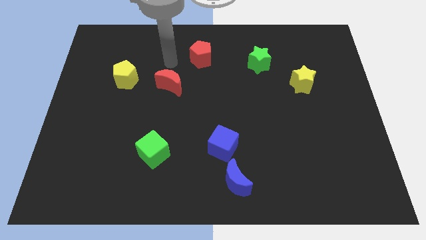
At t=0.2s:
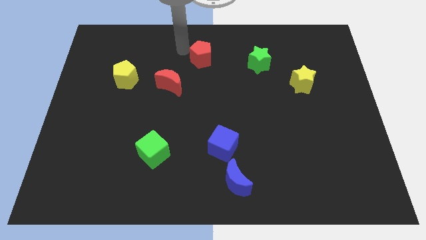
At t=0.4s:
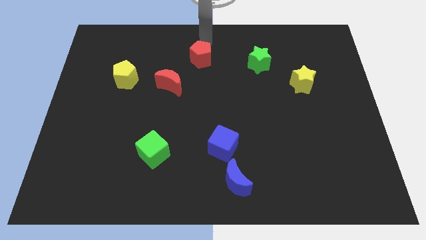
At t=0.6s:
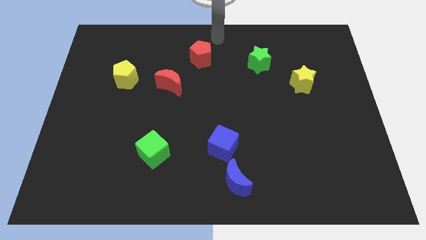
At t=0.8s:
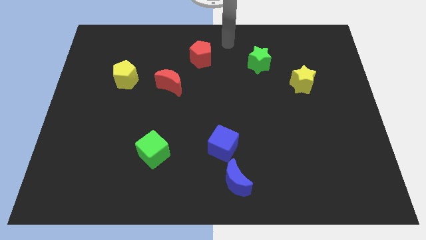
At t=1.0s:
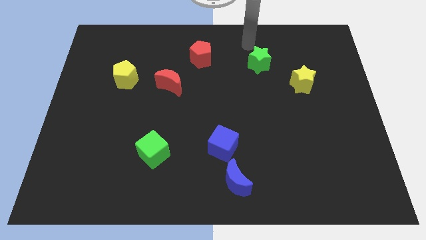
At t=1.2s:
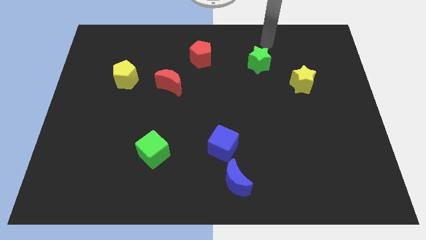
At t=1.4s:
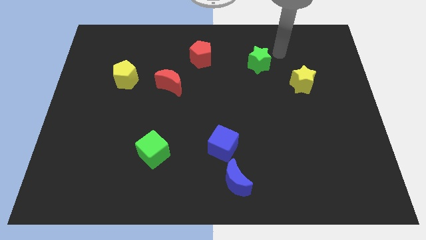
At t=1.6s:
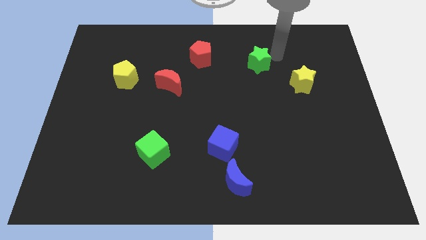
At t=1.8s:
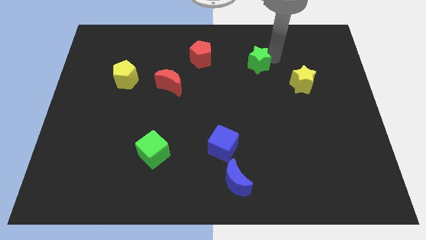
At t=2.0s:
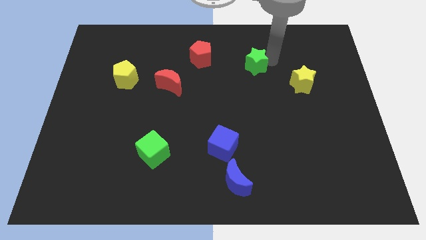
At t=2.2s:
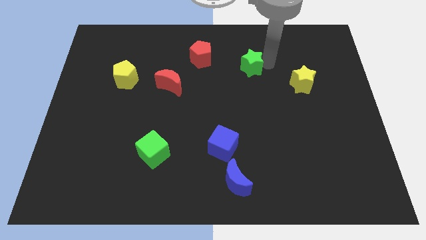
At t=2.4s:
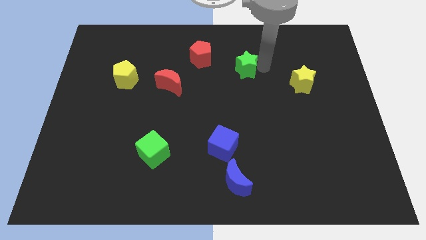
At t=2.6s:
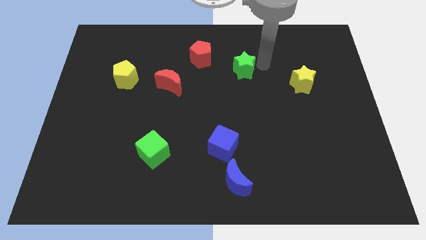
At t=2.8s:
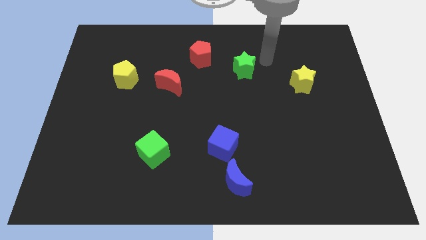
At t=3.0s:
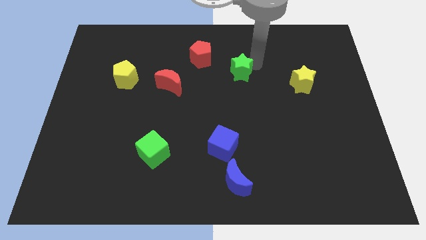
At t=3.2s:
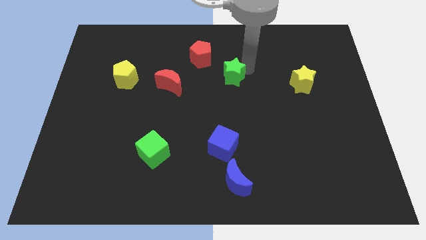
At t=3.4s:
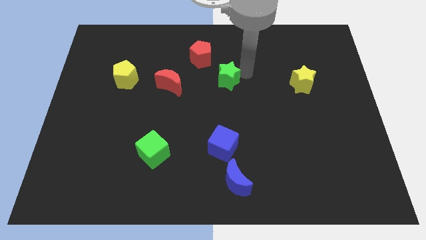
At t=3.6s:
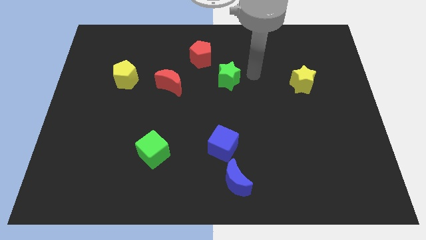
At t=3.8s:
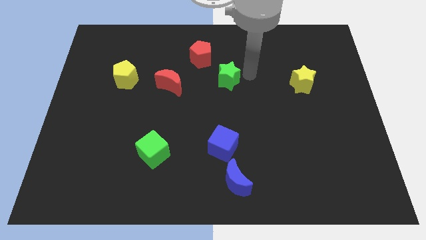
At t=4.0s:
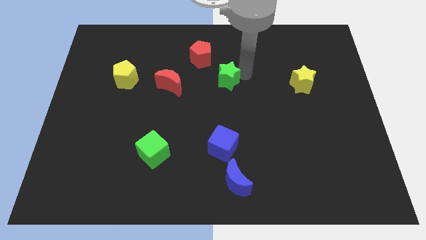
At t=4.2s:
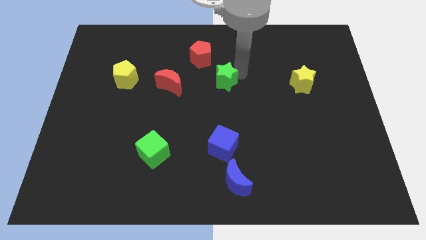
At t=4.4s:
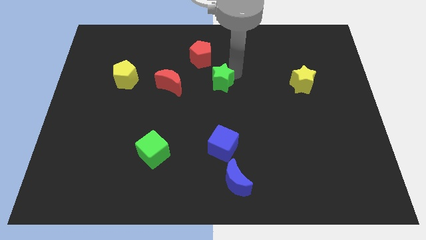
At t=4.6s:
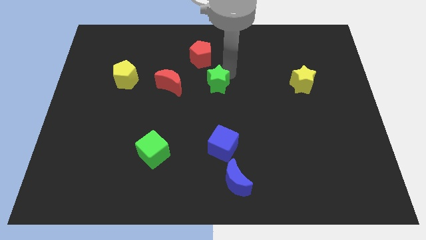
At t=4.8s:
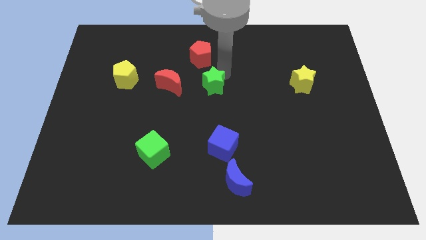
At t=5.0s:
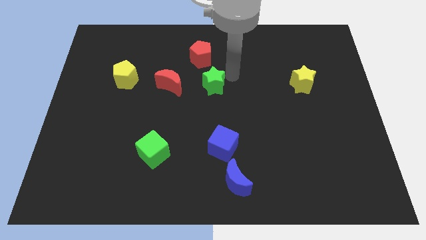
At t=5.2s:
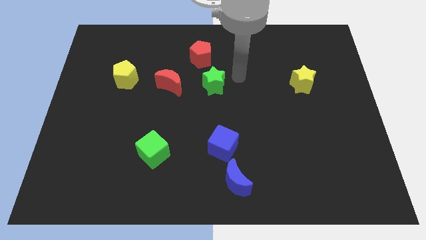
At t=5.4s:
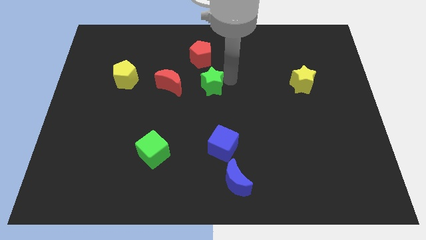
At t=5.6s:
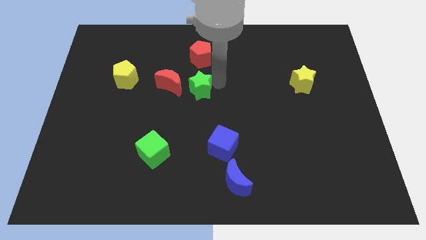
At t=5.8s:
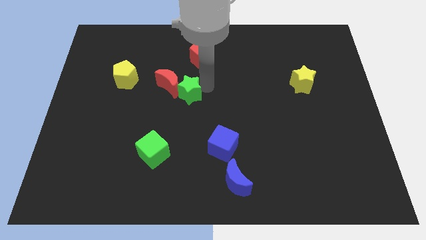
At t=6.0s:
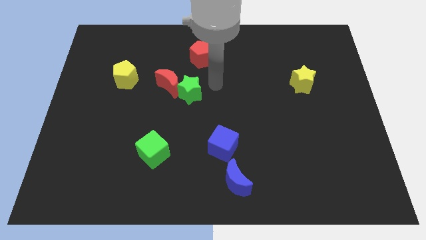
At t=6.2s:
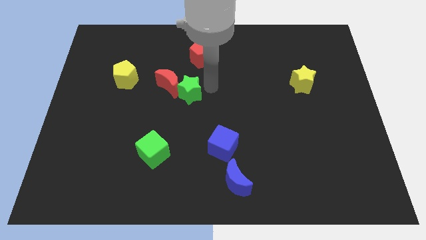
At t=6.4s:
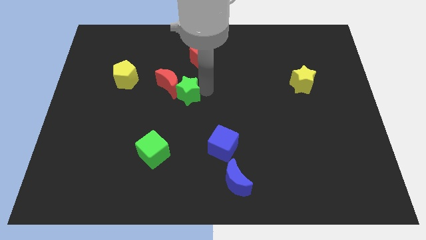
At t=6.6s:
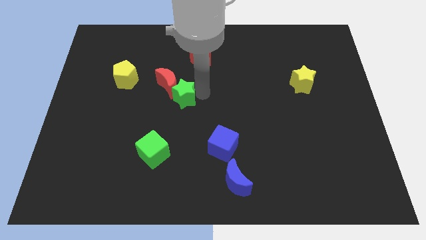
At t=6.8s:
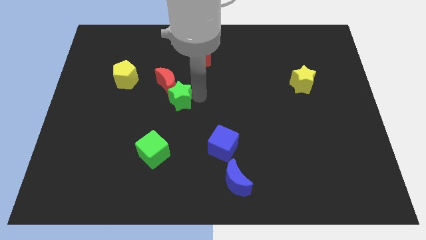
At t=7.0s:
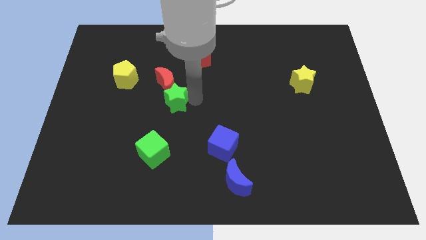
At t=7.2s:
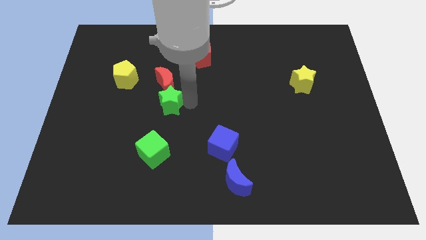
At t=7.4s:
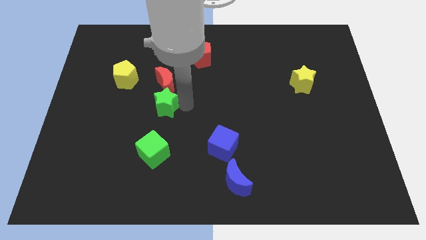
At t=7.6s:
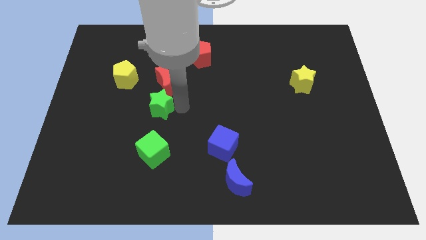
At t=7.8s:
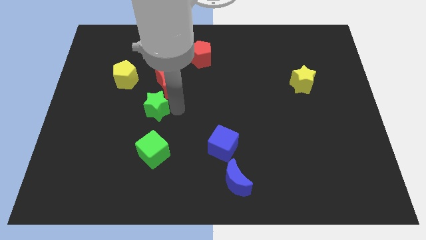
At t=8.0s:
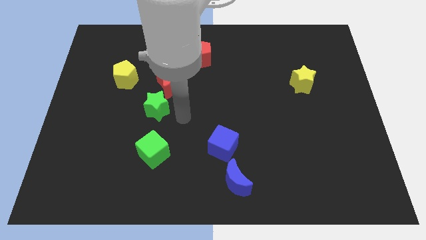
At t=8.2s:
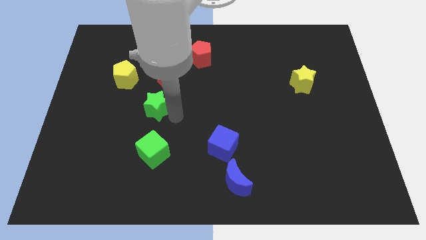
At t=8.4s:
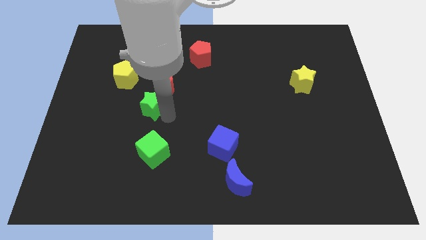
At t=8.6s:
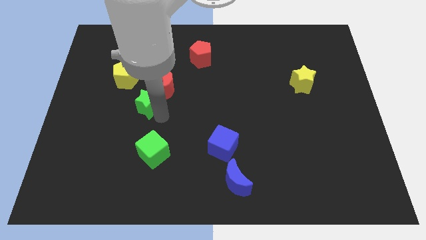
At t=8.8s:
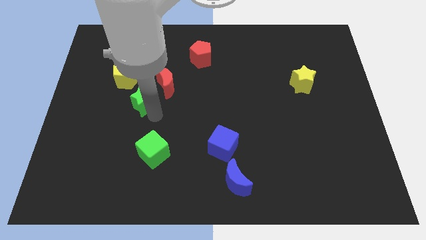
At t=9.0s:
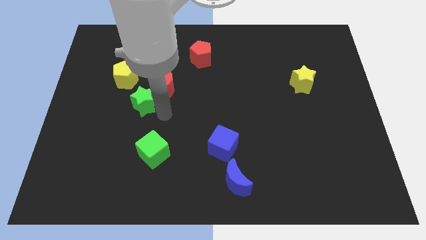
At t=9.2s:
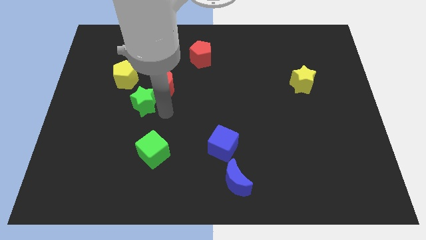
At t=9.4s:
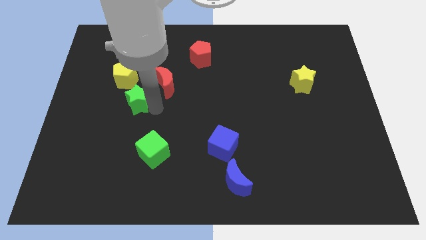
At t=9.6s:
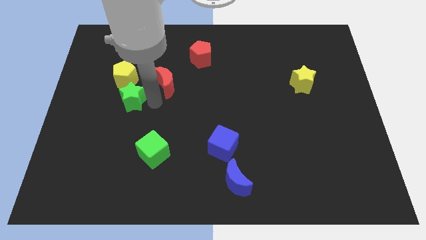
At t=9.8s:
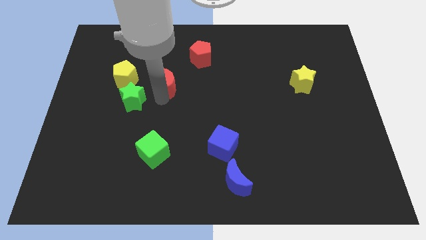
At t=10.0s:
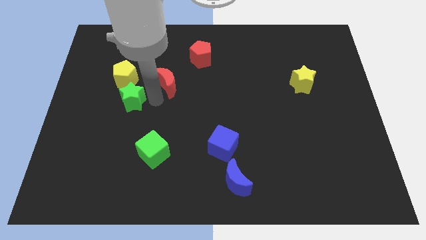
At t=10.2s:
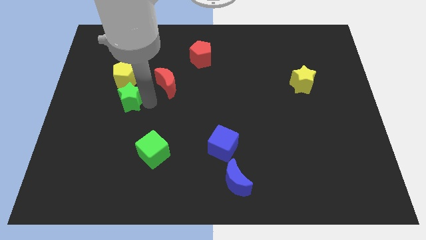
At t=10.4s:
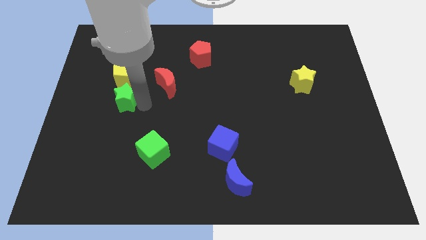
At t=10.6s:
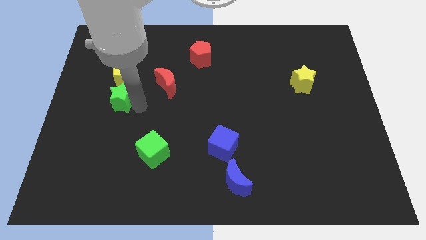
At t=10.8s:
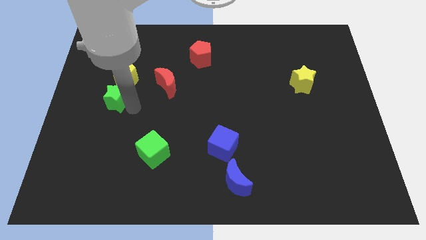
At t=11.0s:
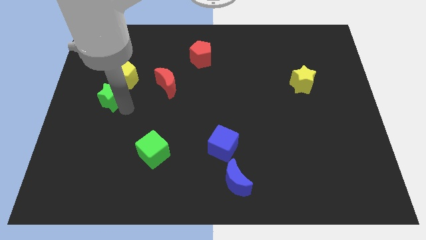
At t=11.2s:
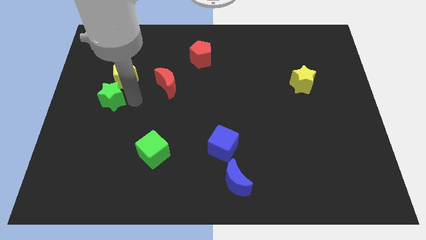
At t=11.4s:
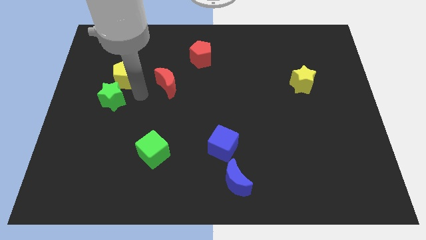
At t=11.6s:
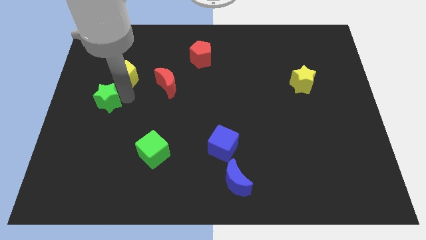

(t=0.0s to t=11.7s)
push the green star to the center left

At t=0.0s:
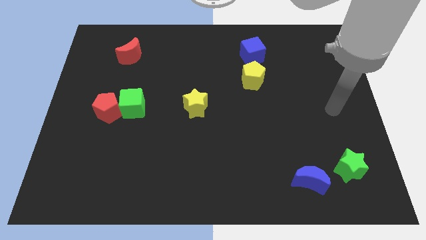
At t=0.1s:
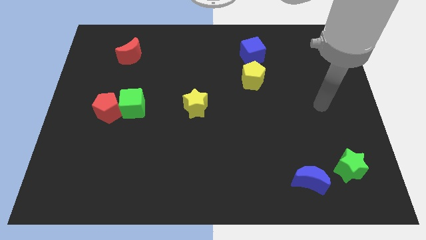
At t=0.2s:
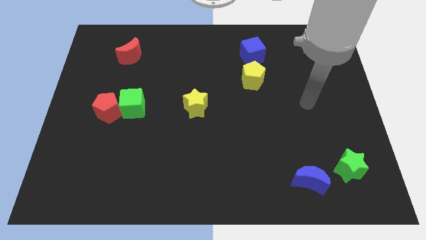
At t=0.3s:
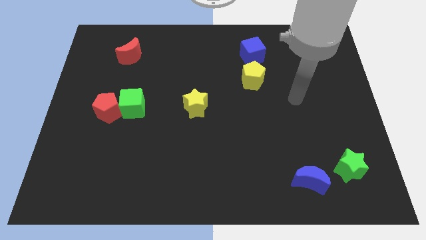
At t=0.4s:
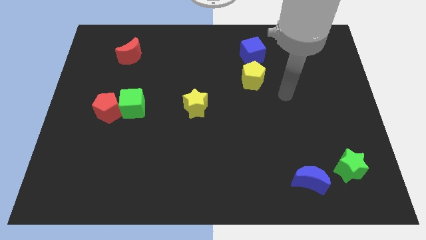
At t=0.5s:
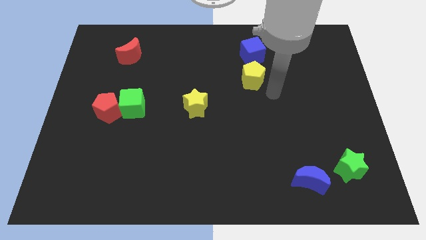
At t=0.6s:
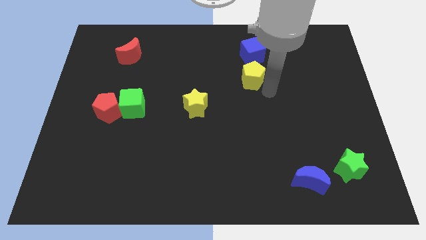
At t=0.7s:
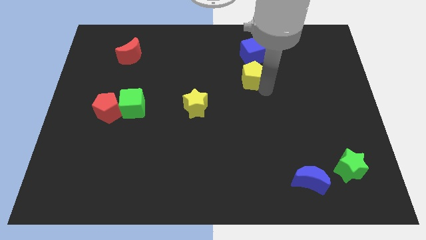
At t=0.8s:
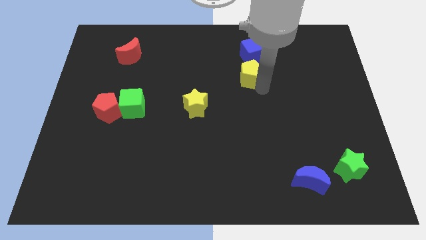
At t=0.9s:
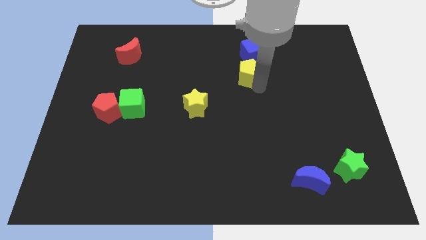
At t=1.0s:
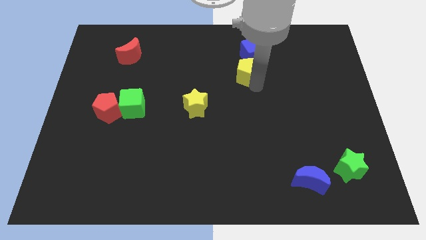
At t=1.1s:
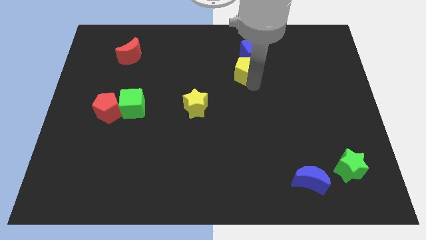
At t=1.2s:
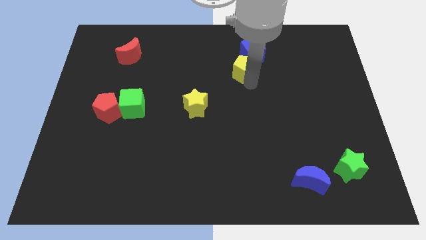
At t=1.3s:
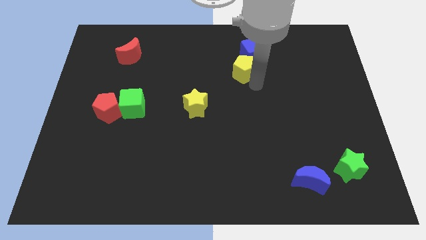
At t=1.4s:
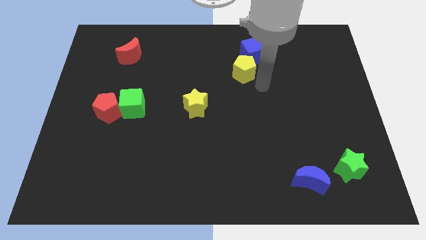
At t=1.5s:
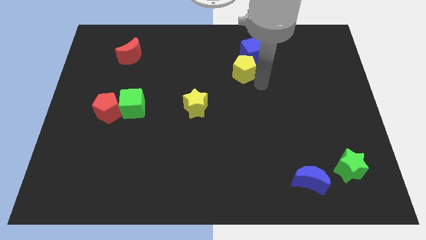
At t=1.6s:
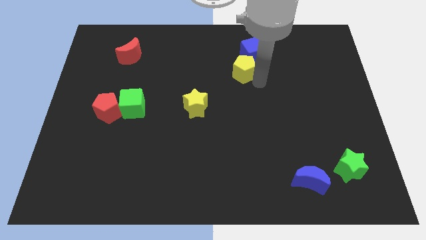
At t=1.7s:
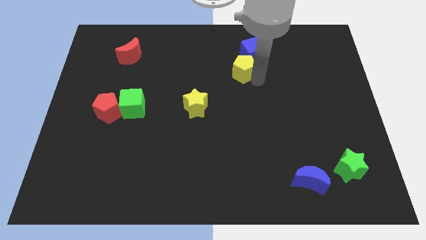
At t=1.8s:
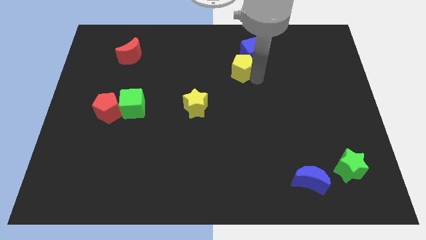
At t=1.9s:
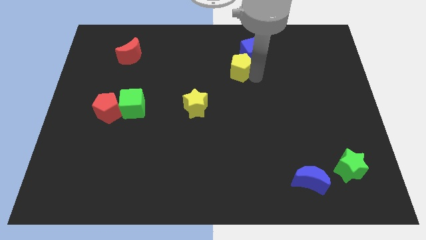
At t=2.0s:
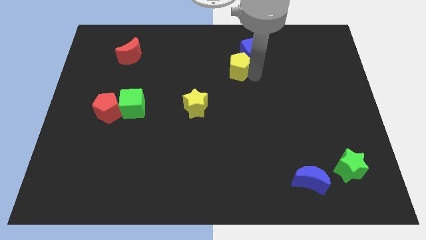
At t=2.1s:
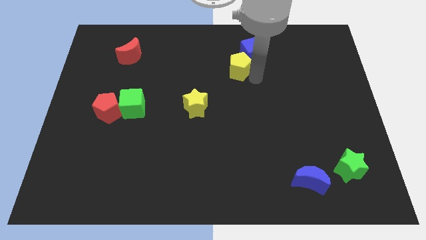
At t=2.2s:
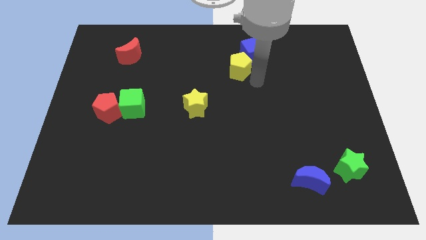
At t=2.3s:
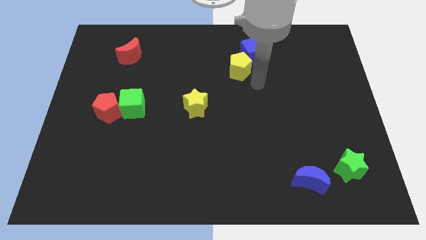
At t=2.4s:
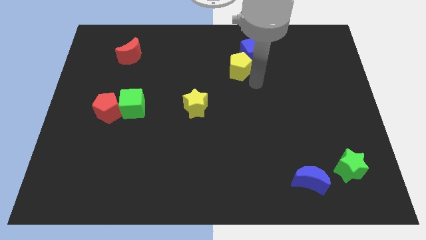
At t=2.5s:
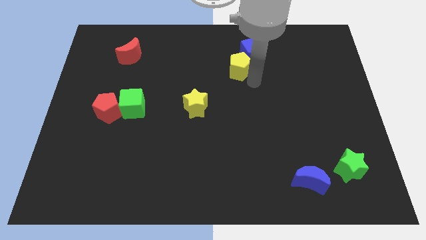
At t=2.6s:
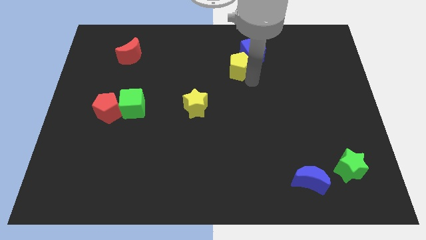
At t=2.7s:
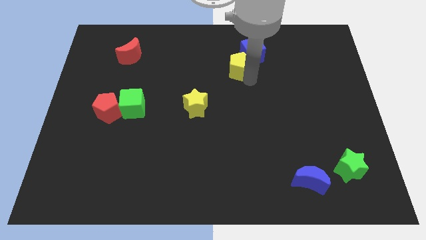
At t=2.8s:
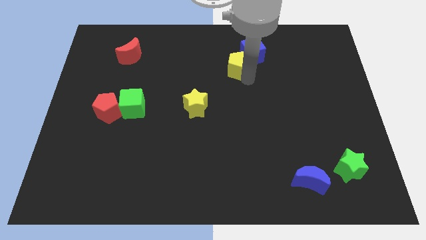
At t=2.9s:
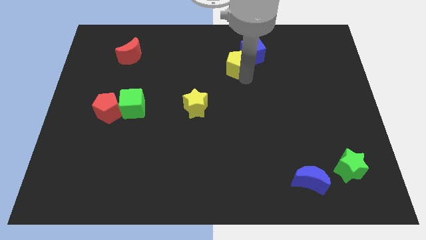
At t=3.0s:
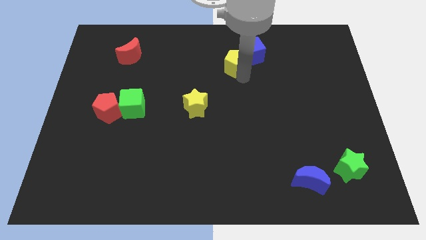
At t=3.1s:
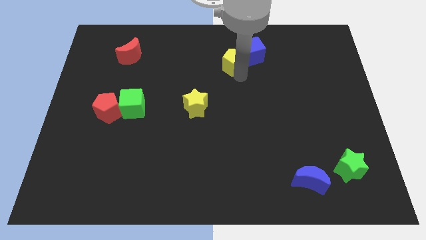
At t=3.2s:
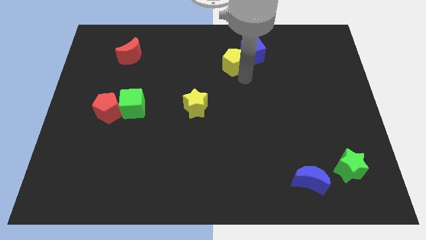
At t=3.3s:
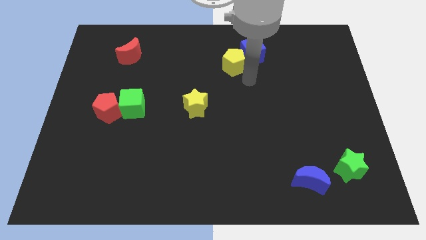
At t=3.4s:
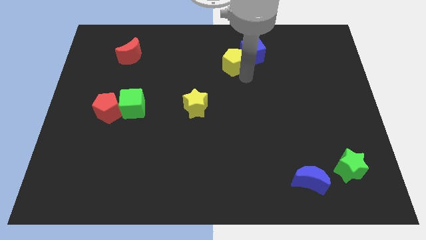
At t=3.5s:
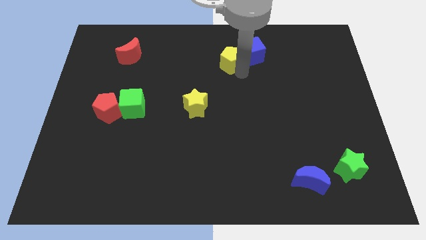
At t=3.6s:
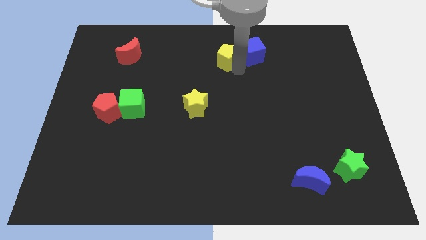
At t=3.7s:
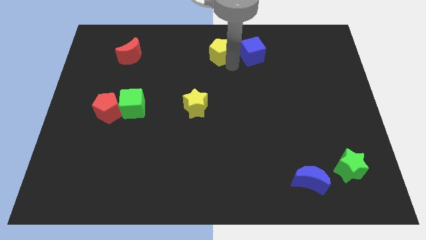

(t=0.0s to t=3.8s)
slide the yellow pentagon to the top side
